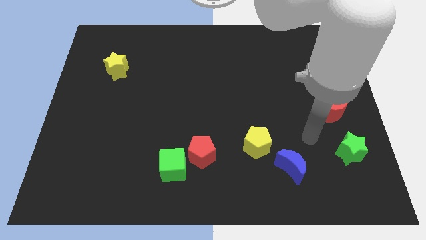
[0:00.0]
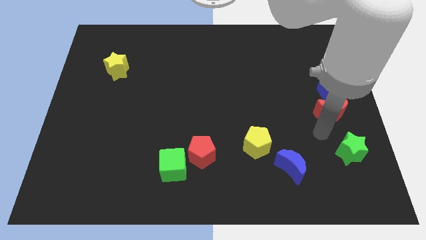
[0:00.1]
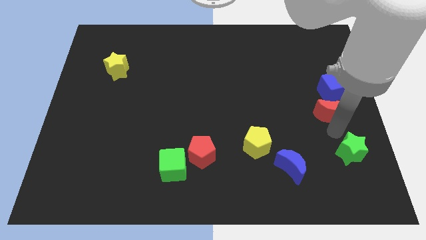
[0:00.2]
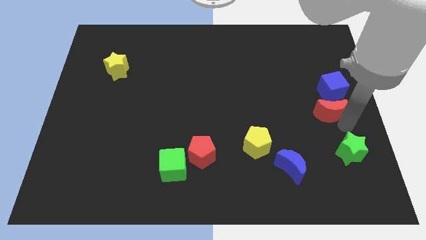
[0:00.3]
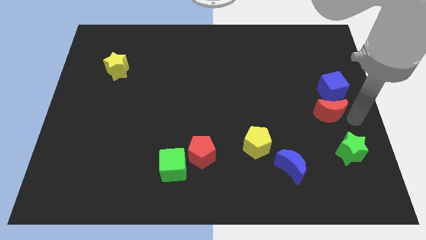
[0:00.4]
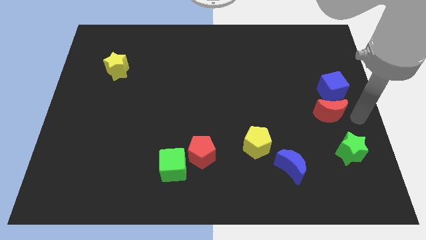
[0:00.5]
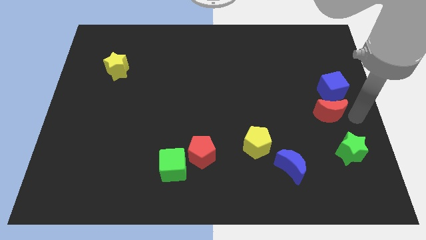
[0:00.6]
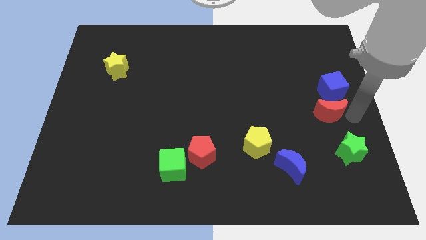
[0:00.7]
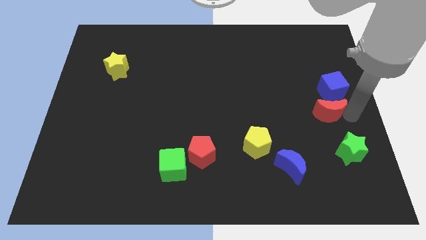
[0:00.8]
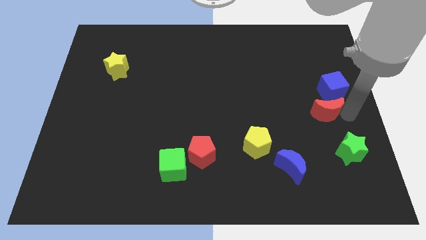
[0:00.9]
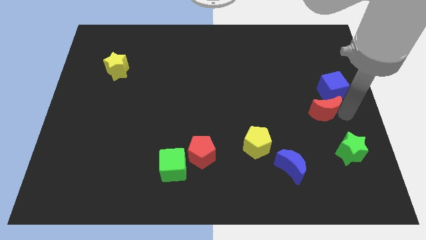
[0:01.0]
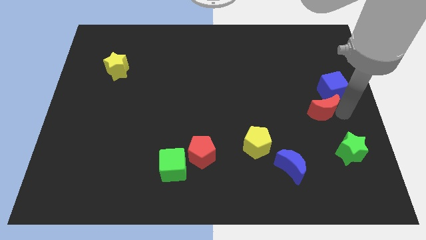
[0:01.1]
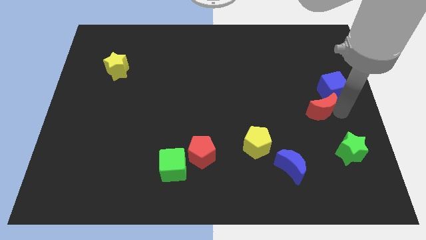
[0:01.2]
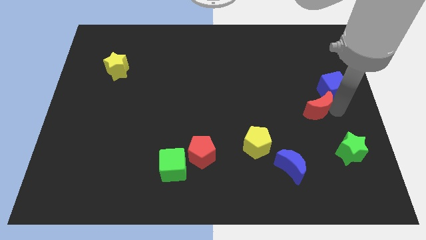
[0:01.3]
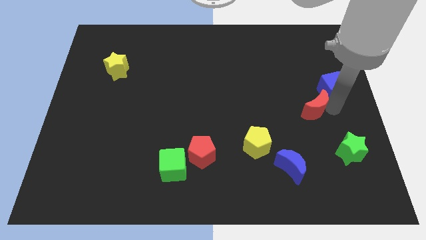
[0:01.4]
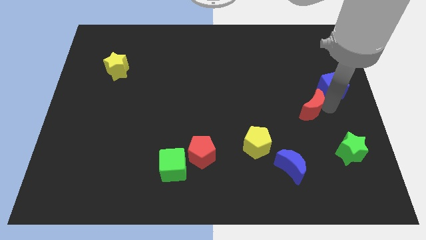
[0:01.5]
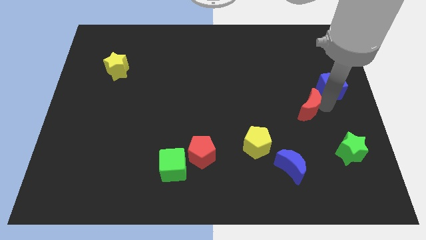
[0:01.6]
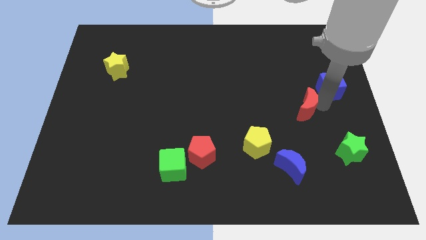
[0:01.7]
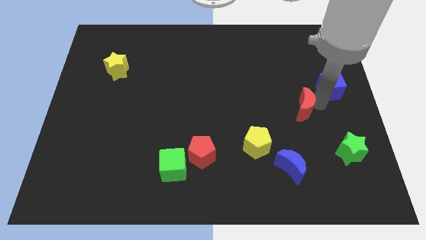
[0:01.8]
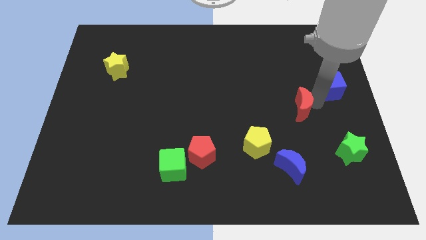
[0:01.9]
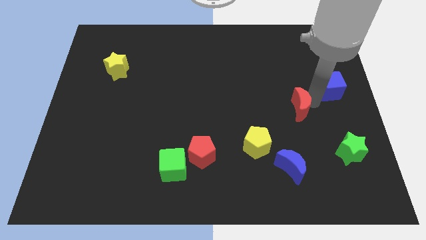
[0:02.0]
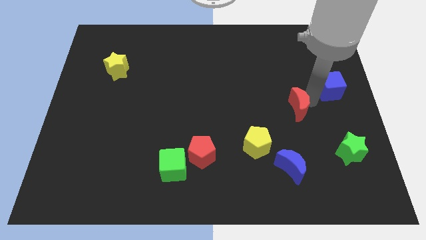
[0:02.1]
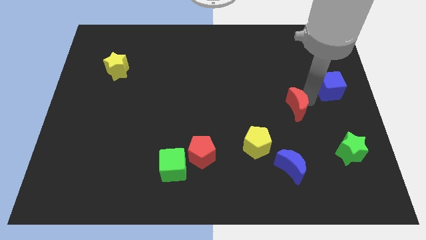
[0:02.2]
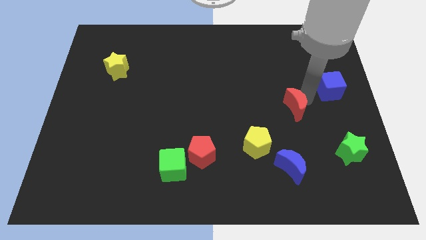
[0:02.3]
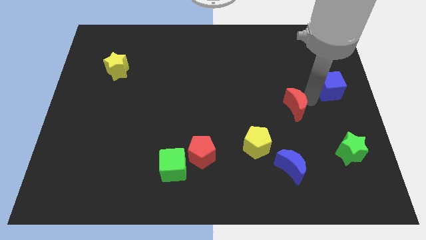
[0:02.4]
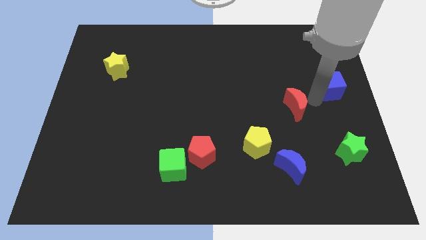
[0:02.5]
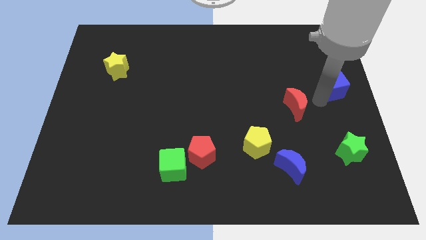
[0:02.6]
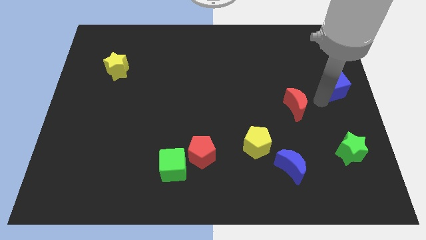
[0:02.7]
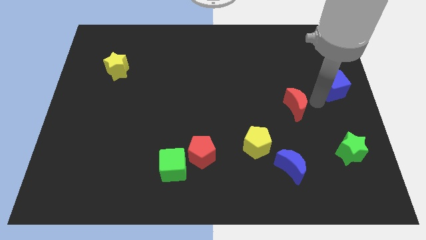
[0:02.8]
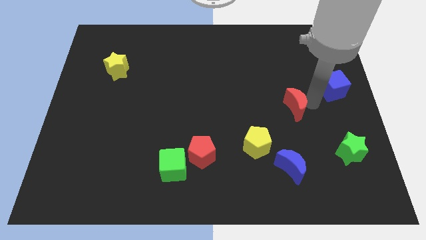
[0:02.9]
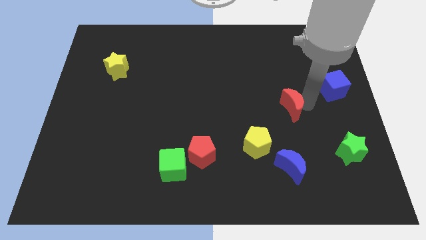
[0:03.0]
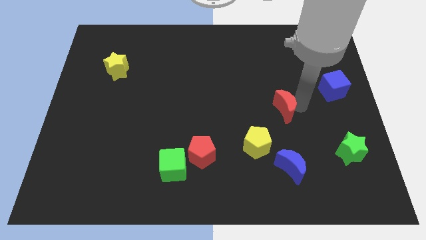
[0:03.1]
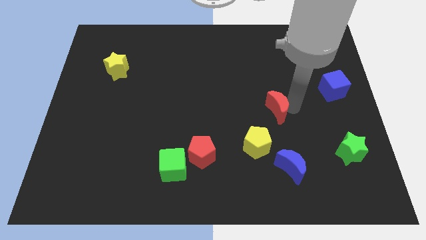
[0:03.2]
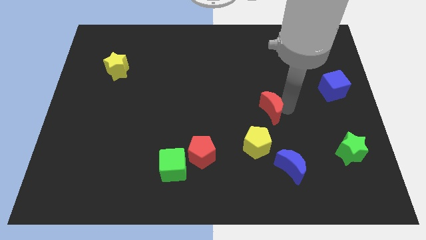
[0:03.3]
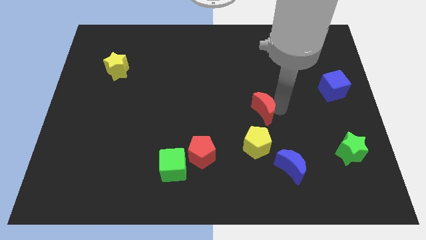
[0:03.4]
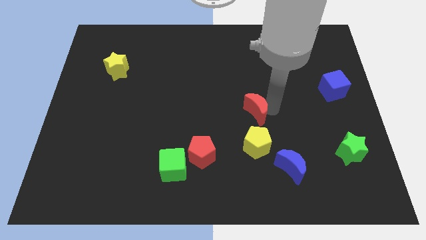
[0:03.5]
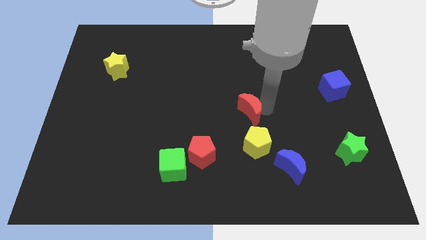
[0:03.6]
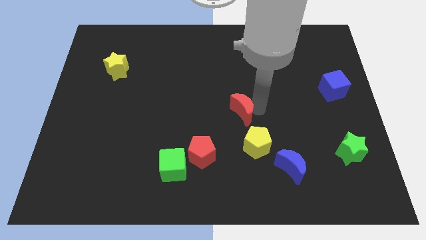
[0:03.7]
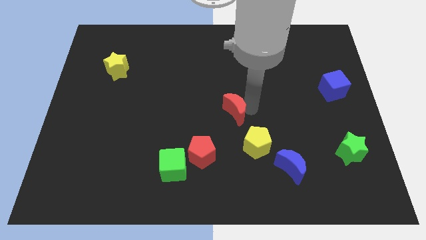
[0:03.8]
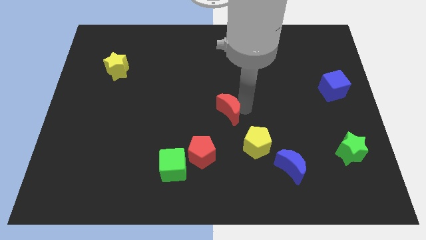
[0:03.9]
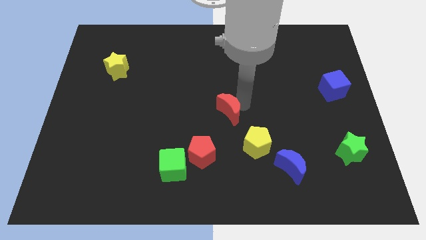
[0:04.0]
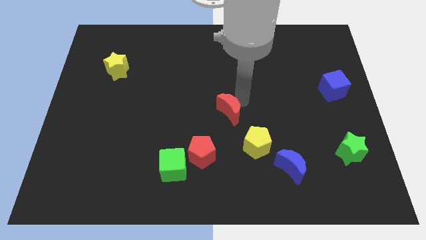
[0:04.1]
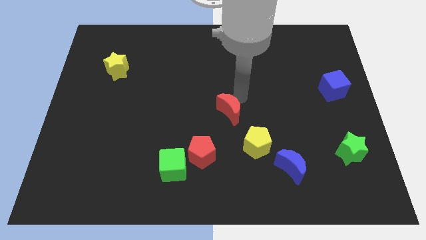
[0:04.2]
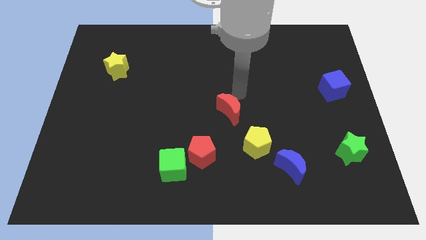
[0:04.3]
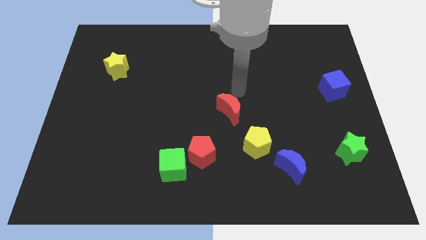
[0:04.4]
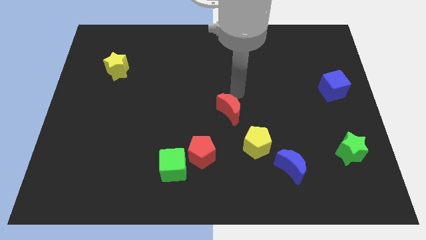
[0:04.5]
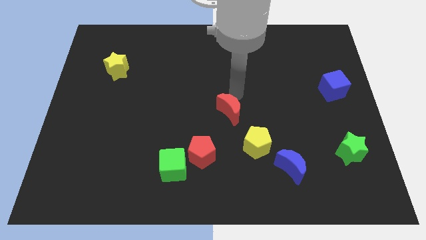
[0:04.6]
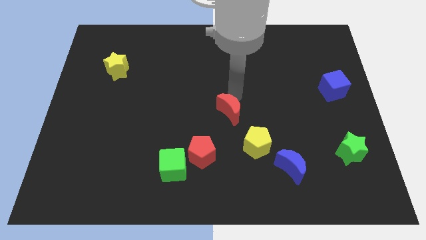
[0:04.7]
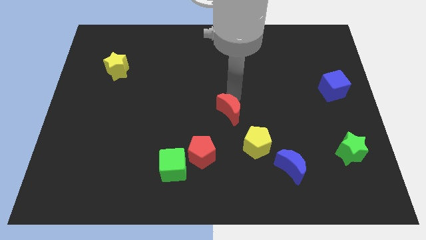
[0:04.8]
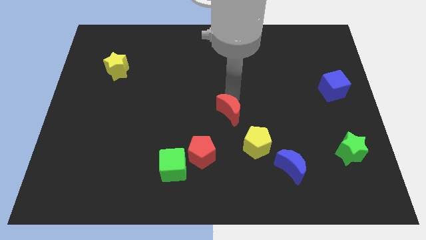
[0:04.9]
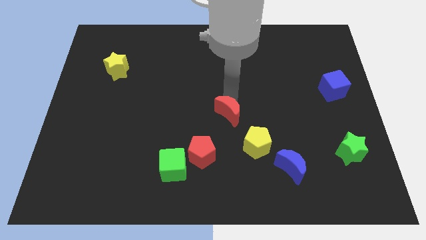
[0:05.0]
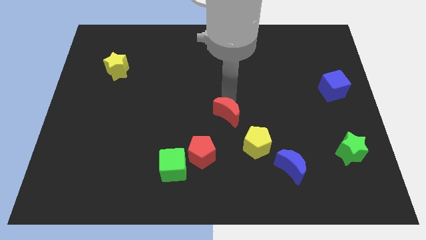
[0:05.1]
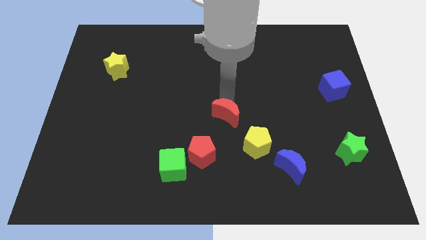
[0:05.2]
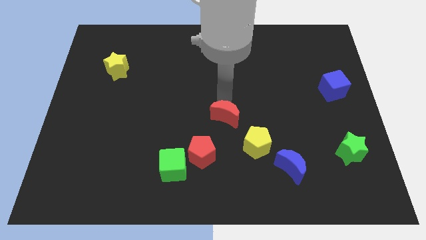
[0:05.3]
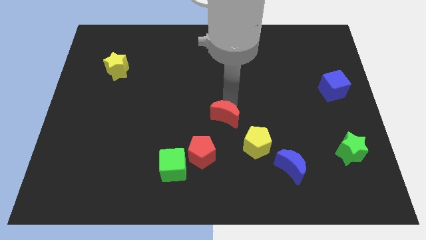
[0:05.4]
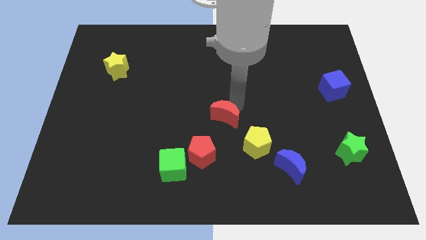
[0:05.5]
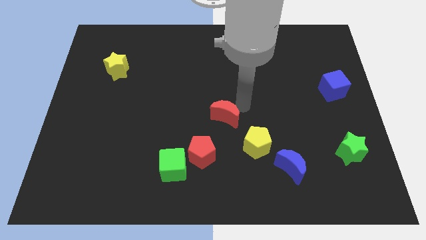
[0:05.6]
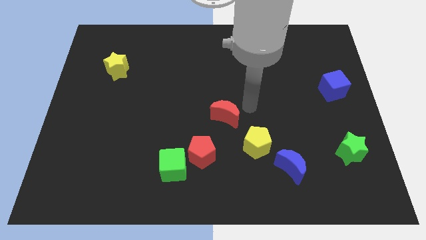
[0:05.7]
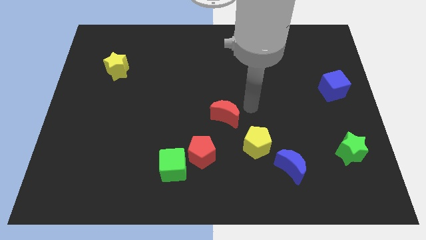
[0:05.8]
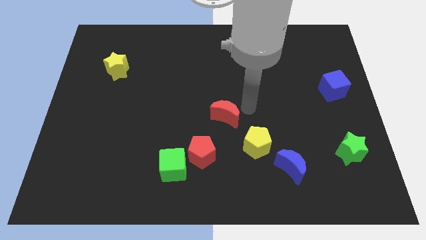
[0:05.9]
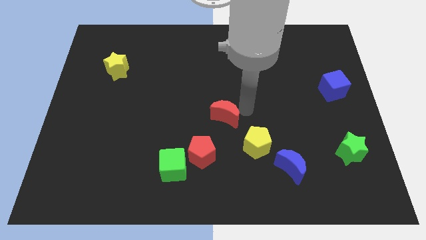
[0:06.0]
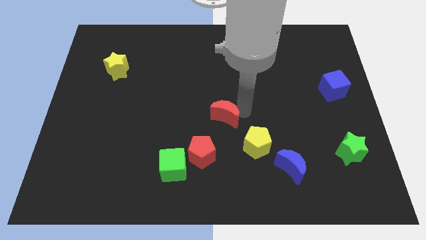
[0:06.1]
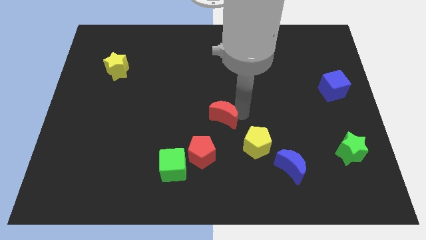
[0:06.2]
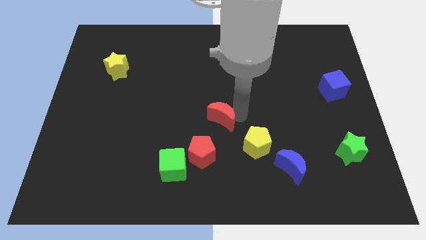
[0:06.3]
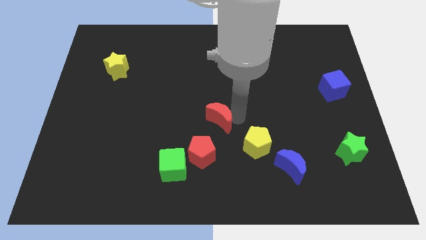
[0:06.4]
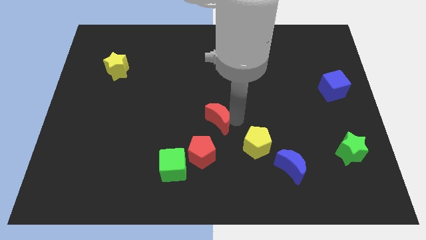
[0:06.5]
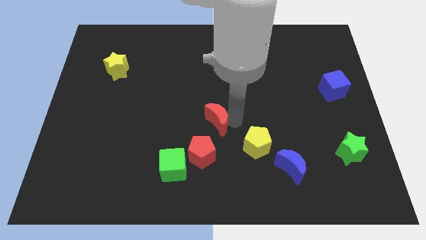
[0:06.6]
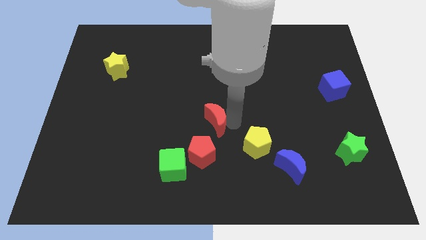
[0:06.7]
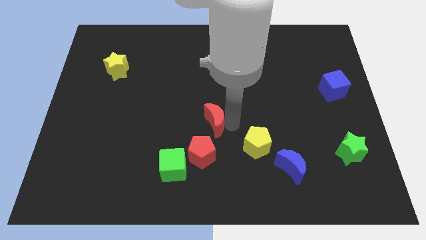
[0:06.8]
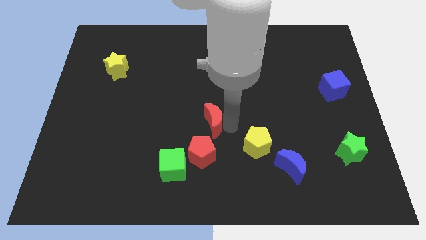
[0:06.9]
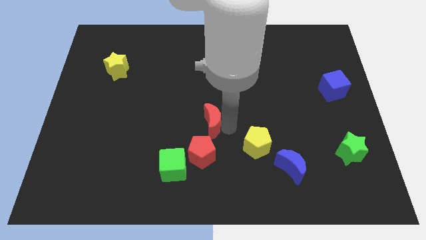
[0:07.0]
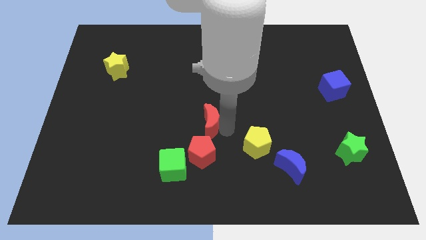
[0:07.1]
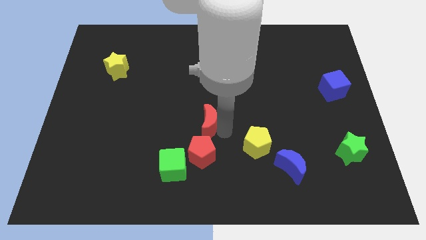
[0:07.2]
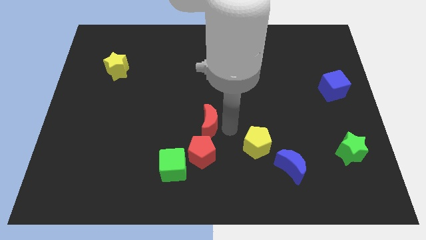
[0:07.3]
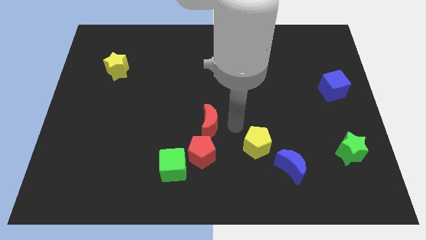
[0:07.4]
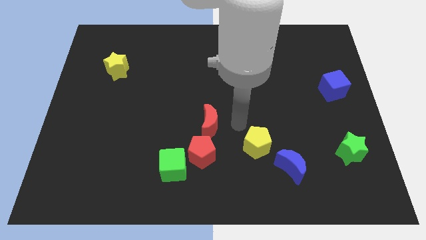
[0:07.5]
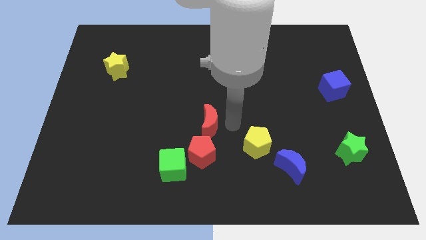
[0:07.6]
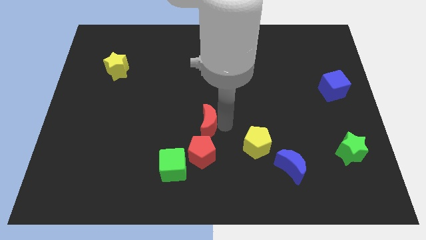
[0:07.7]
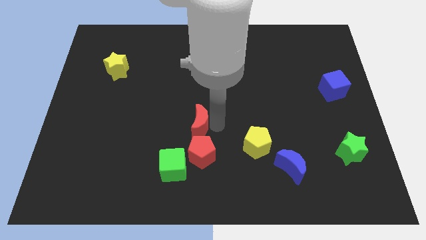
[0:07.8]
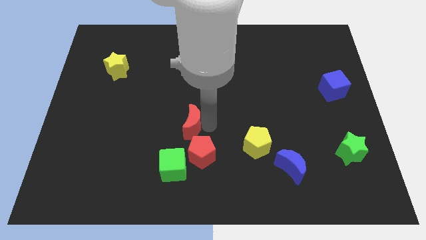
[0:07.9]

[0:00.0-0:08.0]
slide the red moon to the top side of the green cube
